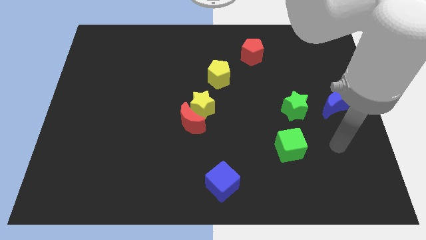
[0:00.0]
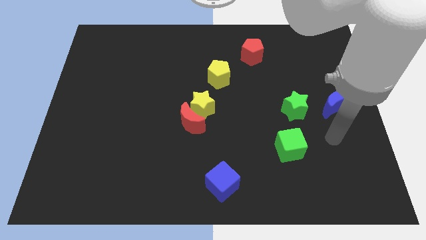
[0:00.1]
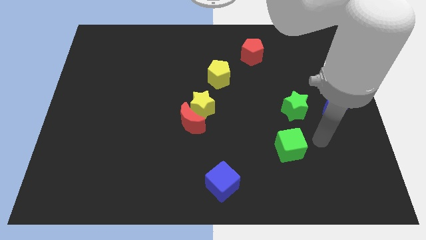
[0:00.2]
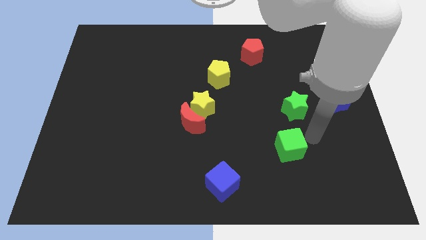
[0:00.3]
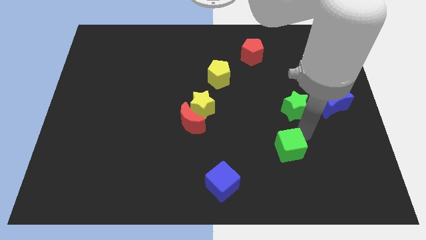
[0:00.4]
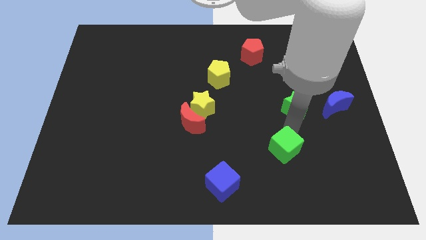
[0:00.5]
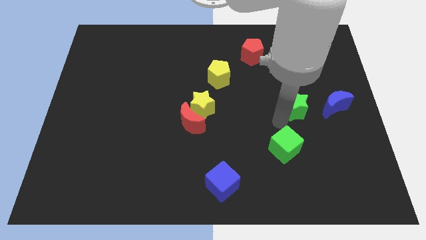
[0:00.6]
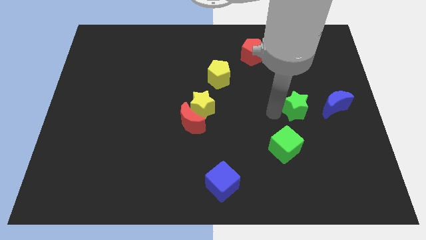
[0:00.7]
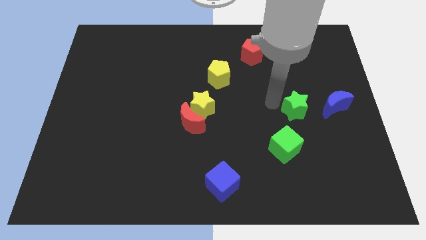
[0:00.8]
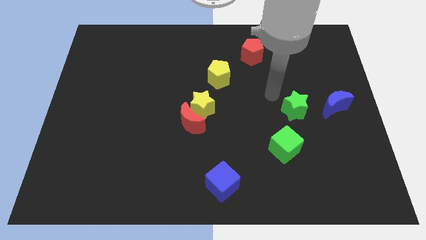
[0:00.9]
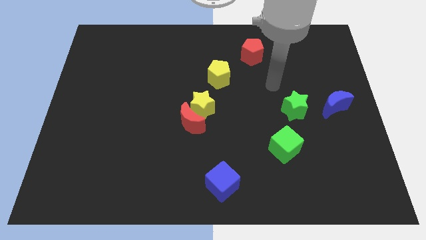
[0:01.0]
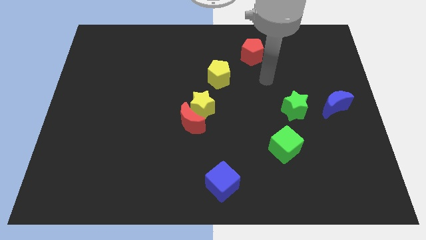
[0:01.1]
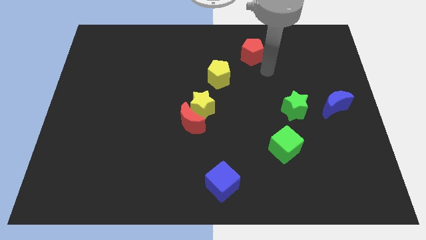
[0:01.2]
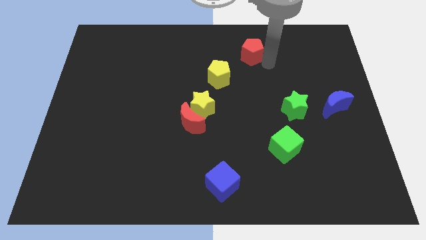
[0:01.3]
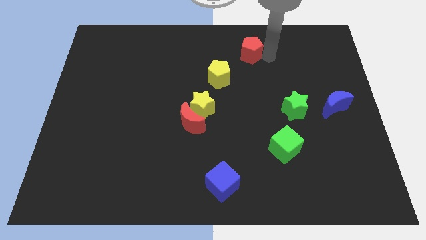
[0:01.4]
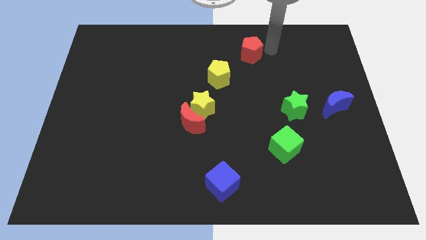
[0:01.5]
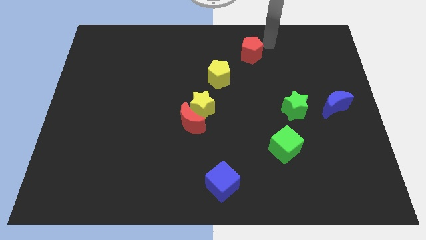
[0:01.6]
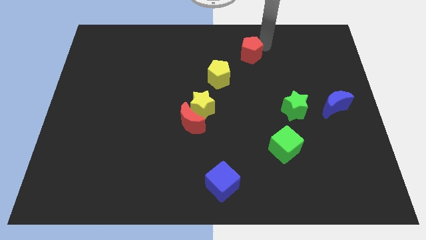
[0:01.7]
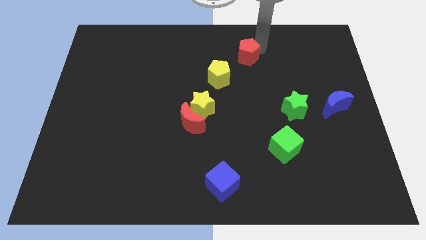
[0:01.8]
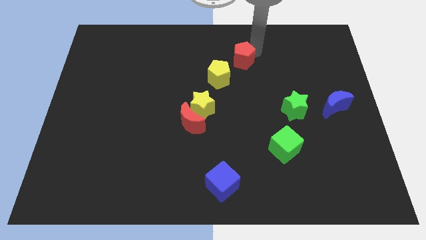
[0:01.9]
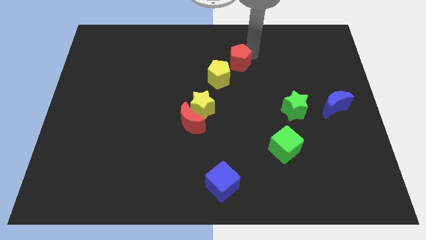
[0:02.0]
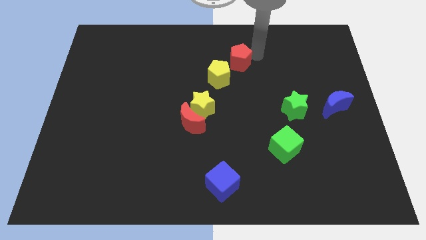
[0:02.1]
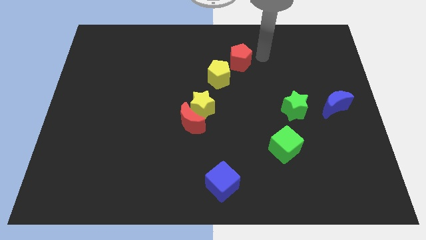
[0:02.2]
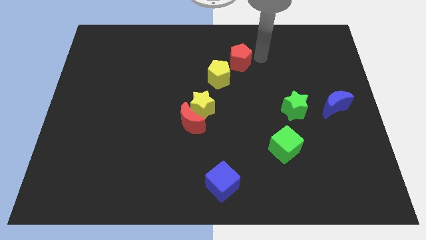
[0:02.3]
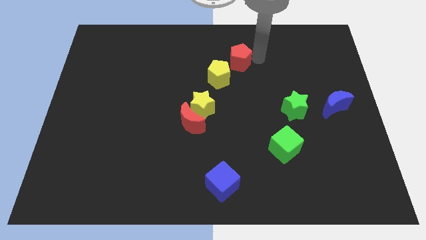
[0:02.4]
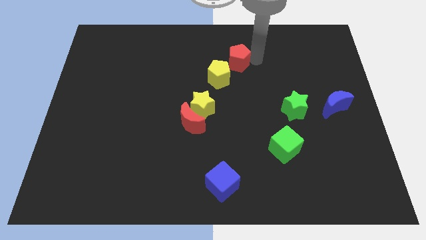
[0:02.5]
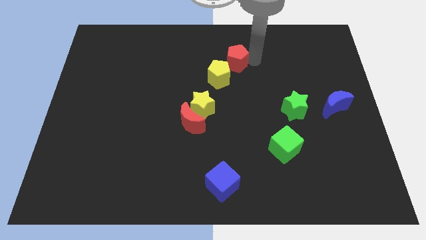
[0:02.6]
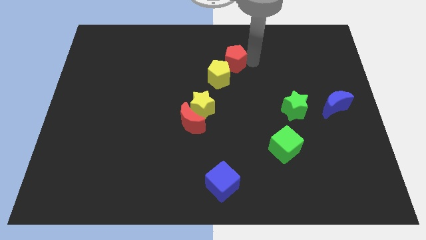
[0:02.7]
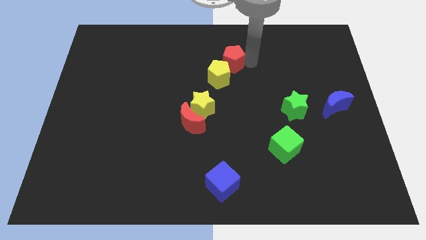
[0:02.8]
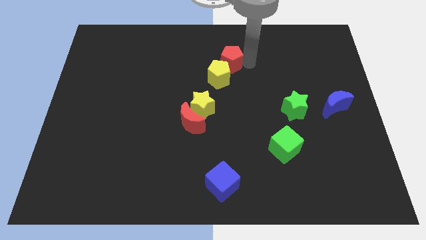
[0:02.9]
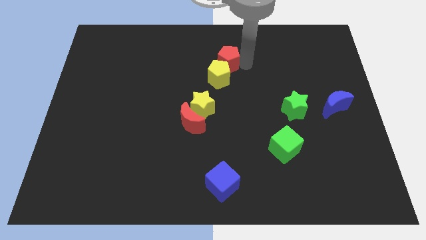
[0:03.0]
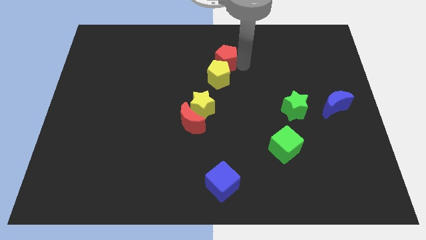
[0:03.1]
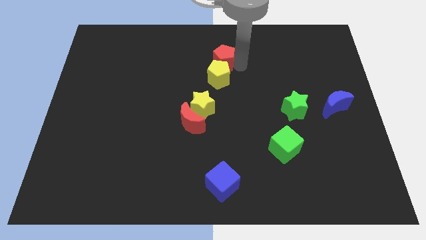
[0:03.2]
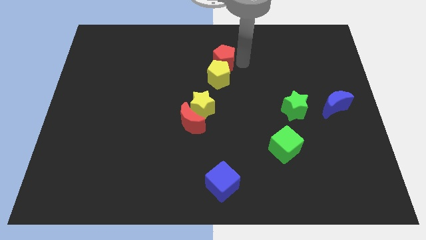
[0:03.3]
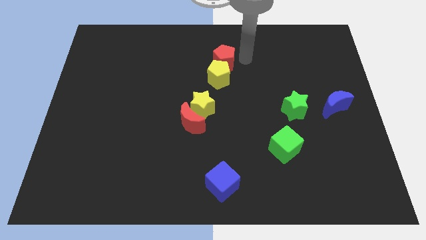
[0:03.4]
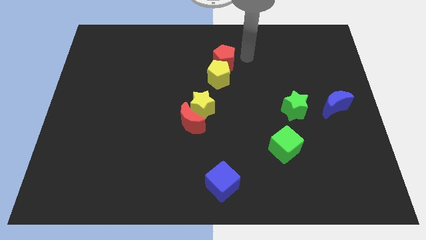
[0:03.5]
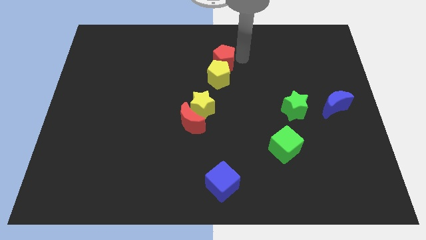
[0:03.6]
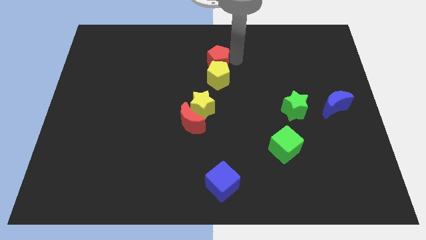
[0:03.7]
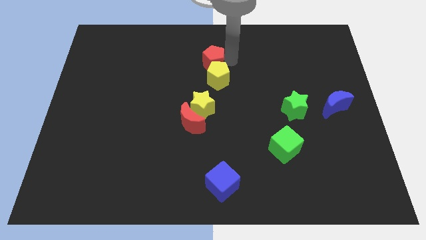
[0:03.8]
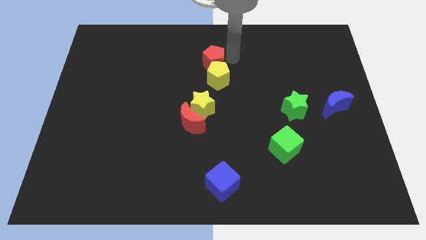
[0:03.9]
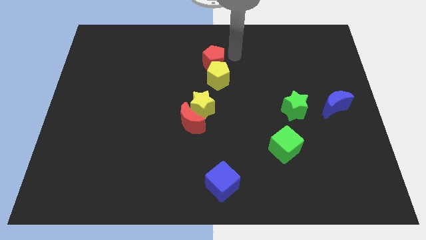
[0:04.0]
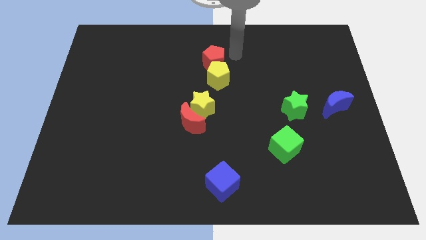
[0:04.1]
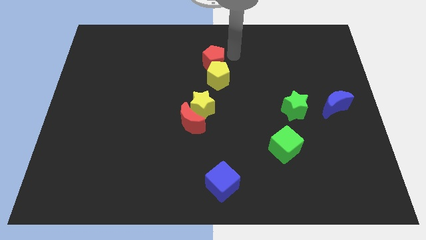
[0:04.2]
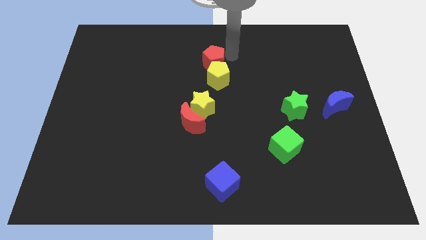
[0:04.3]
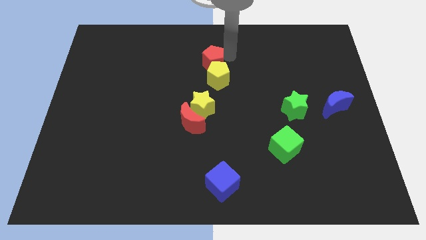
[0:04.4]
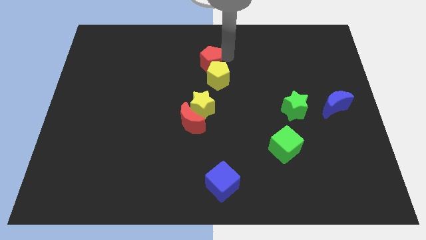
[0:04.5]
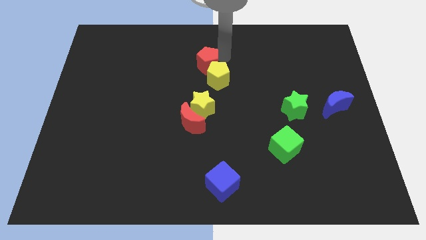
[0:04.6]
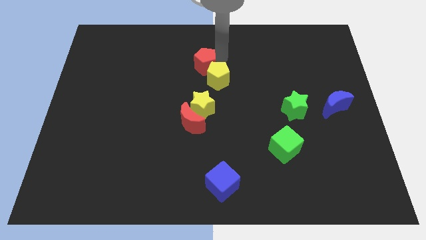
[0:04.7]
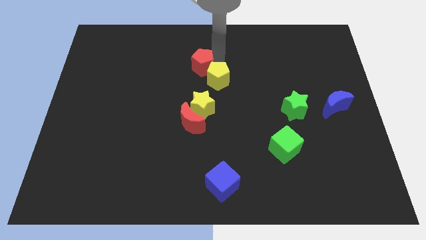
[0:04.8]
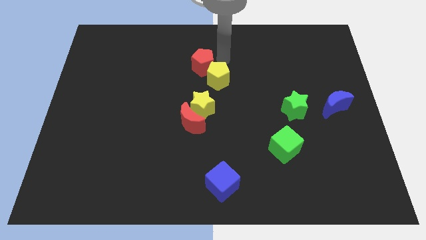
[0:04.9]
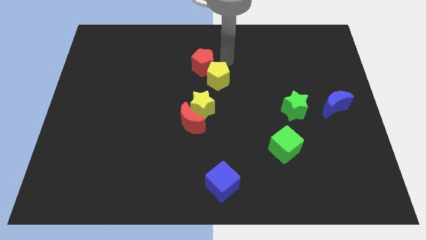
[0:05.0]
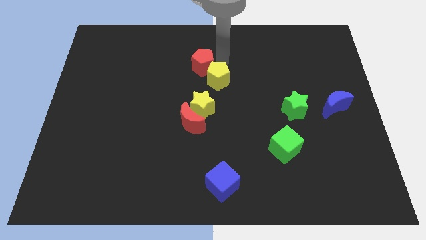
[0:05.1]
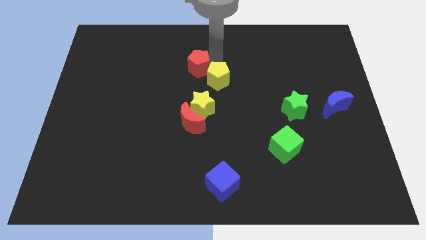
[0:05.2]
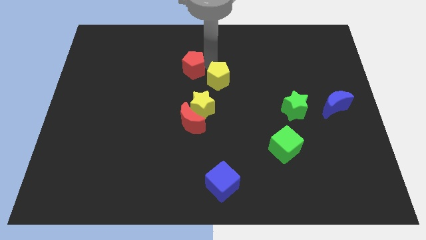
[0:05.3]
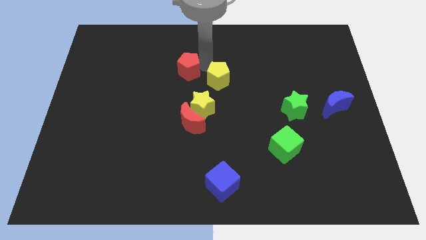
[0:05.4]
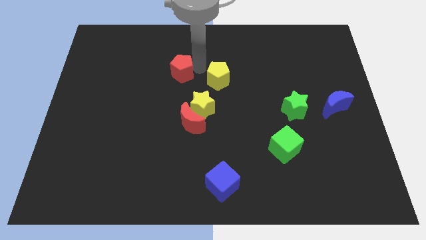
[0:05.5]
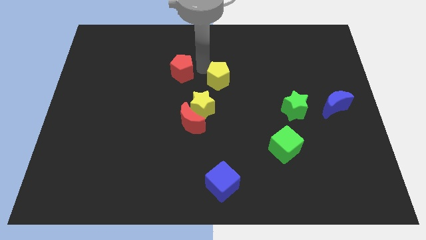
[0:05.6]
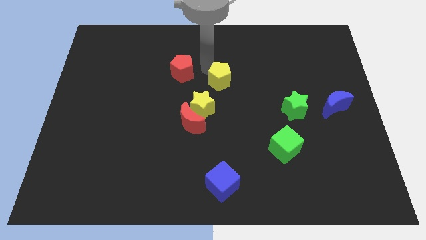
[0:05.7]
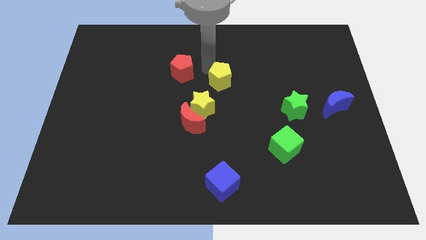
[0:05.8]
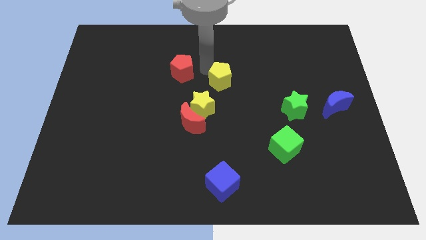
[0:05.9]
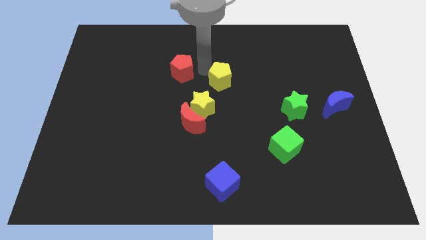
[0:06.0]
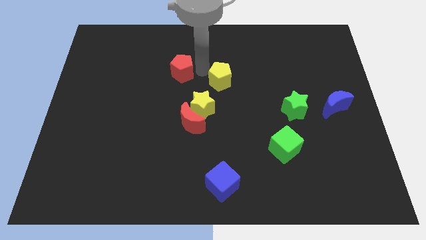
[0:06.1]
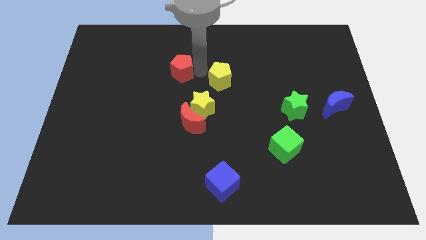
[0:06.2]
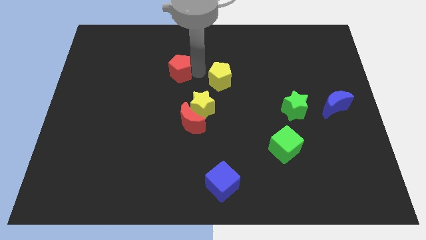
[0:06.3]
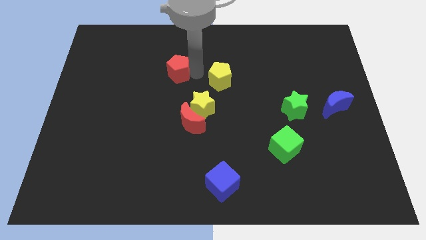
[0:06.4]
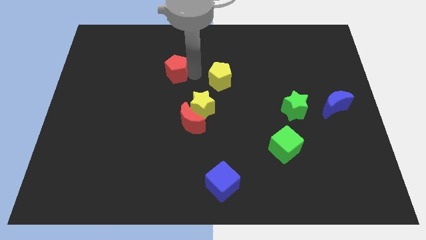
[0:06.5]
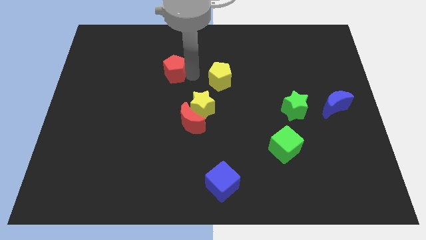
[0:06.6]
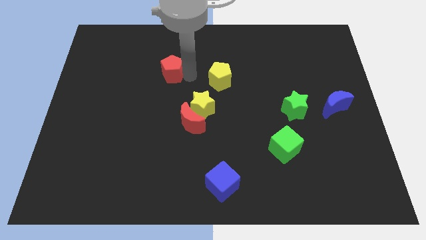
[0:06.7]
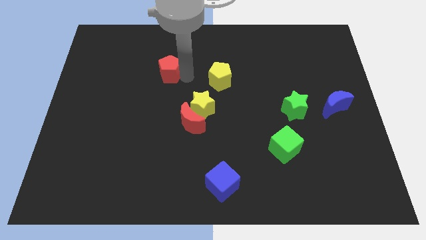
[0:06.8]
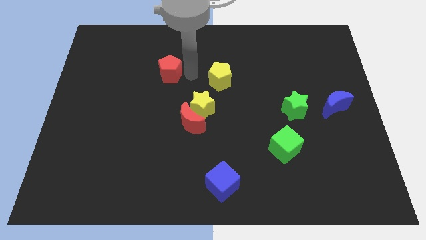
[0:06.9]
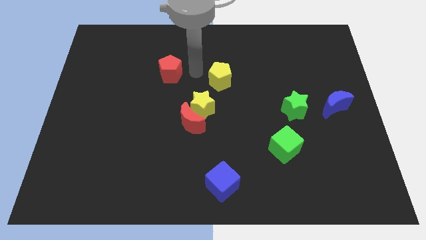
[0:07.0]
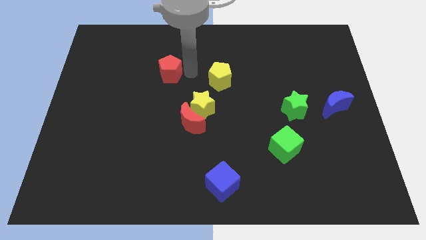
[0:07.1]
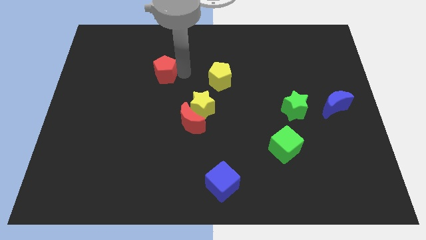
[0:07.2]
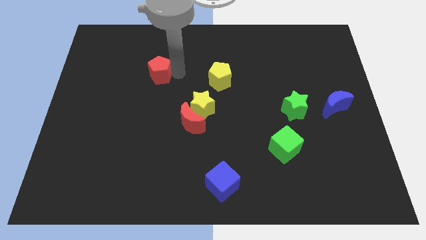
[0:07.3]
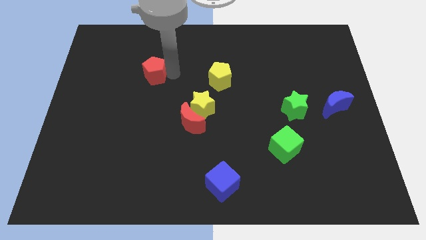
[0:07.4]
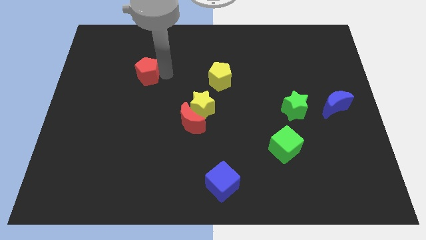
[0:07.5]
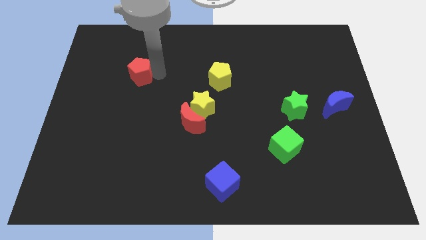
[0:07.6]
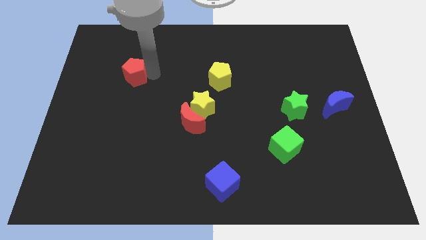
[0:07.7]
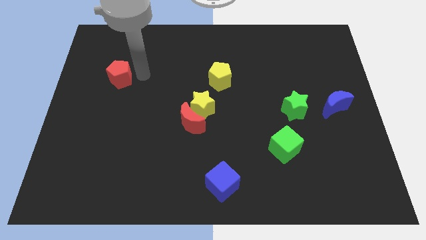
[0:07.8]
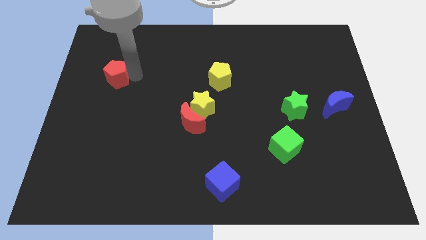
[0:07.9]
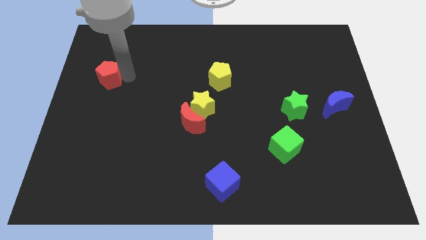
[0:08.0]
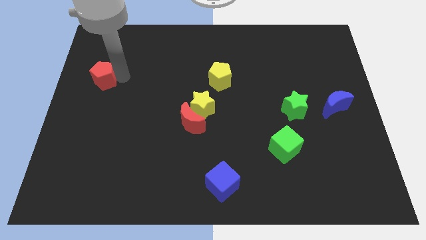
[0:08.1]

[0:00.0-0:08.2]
slide the red pentagon to the left side
